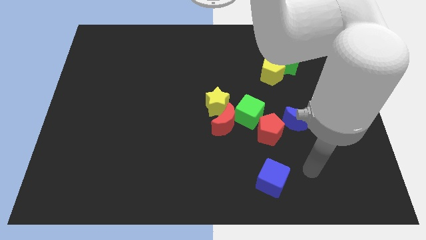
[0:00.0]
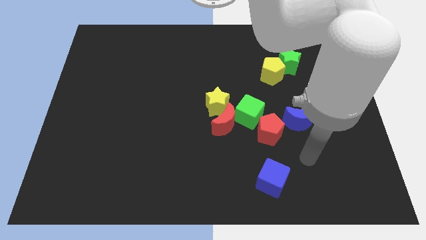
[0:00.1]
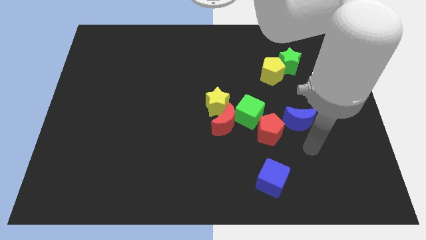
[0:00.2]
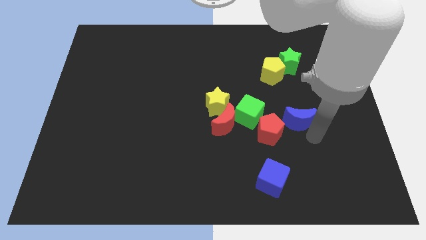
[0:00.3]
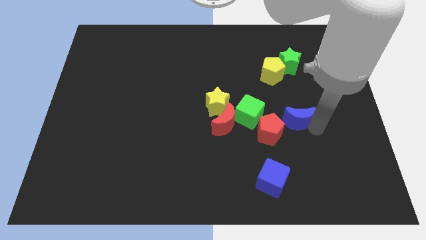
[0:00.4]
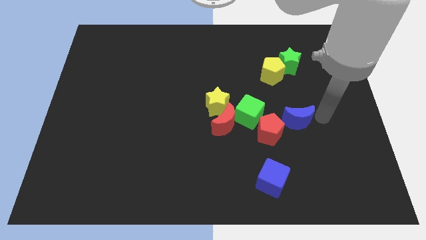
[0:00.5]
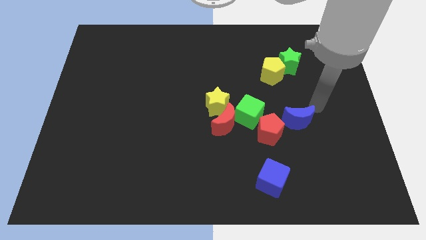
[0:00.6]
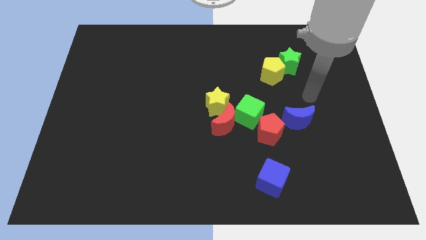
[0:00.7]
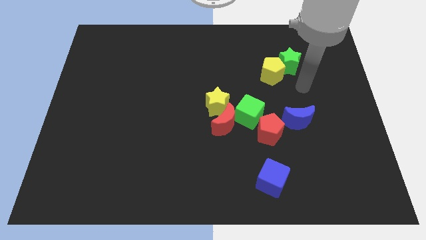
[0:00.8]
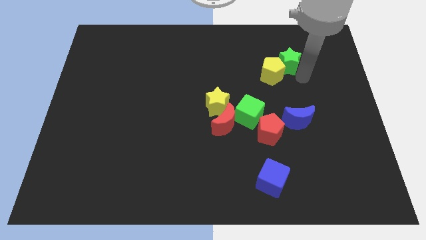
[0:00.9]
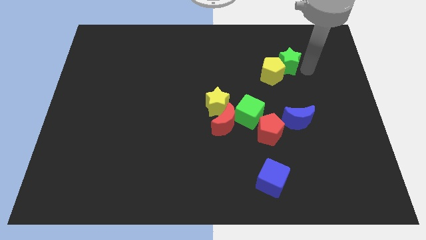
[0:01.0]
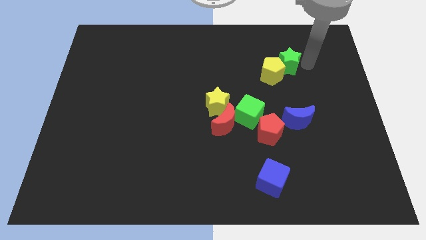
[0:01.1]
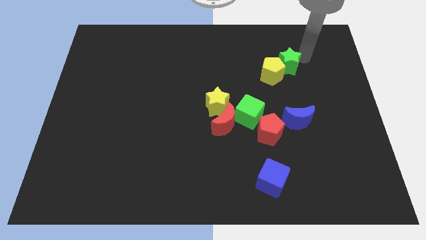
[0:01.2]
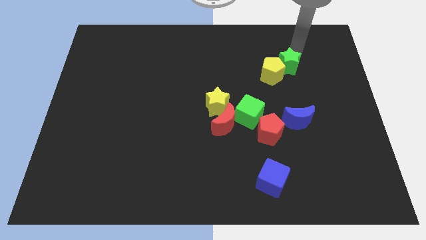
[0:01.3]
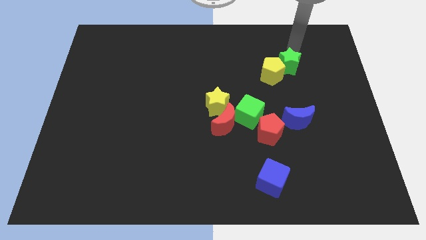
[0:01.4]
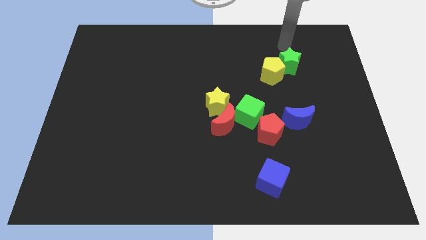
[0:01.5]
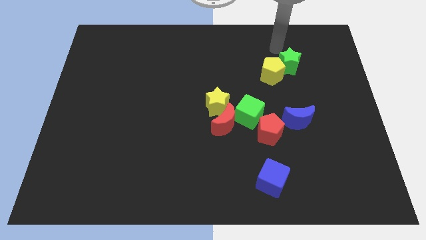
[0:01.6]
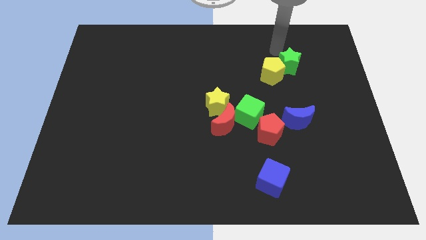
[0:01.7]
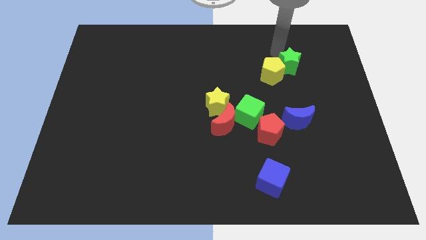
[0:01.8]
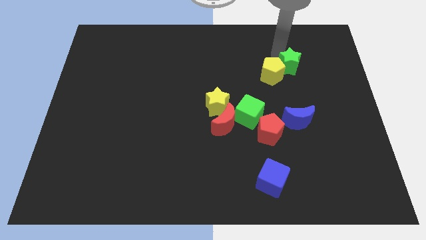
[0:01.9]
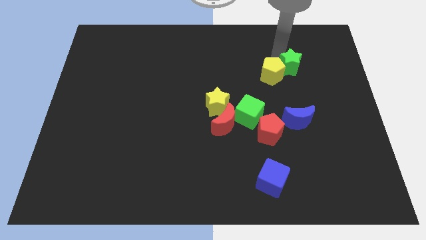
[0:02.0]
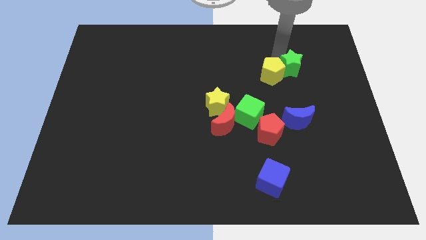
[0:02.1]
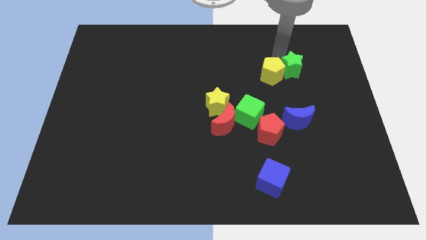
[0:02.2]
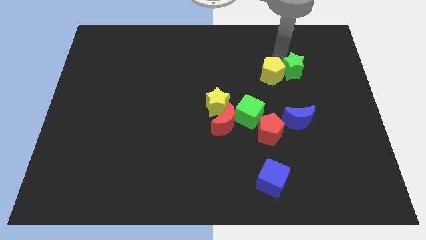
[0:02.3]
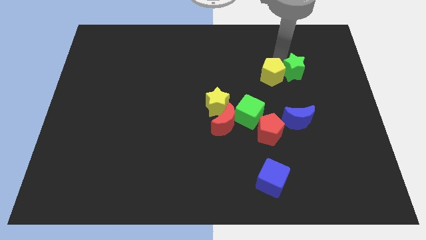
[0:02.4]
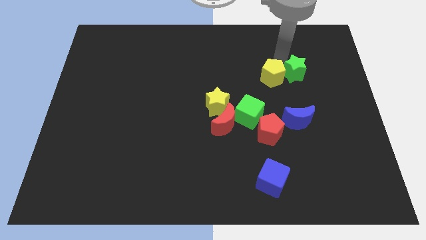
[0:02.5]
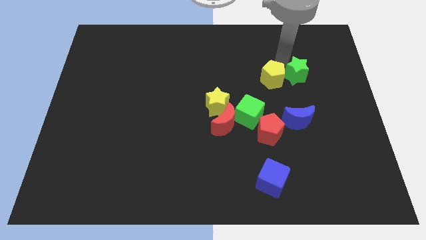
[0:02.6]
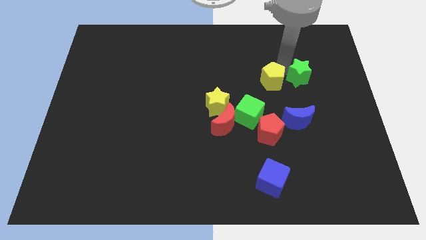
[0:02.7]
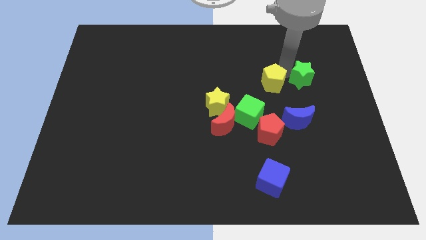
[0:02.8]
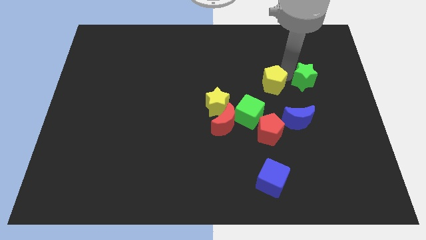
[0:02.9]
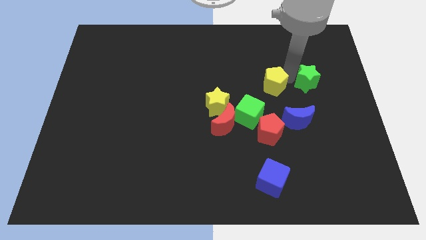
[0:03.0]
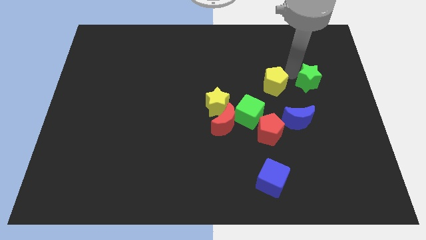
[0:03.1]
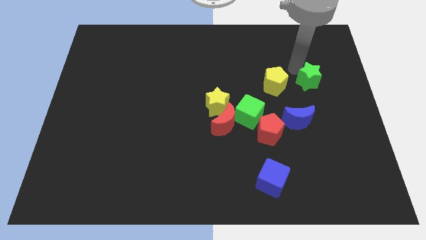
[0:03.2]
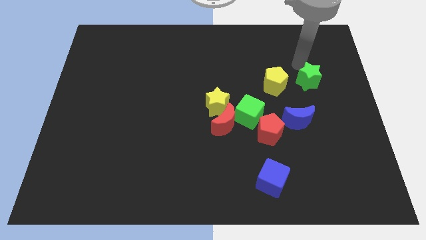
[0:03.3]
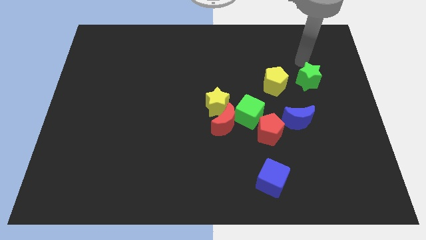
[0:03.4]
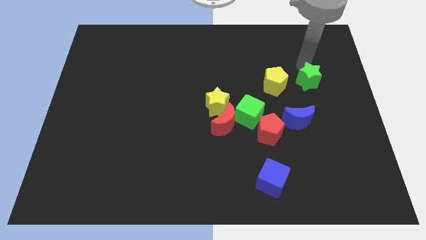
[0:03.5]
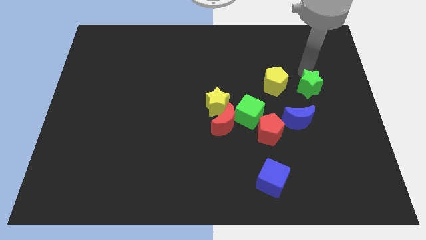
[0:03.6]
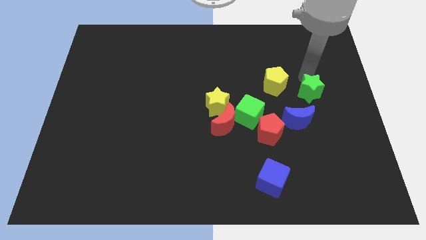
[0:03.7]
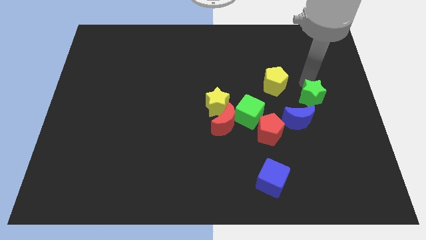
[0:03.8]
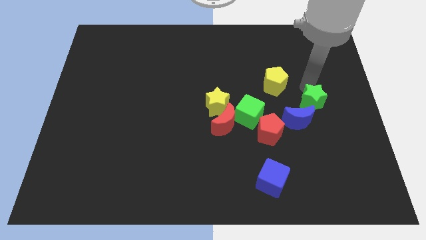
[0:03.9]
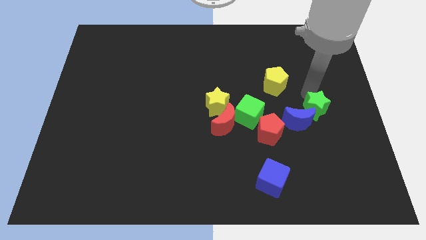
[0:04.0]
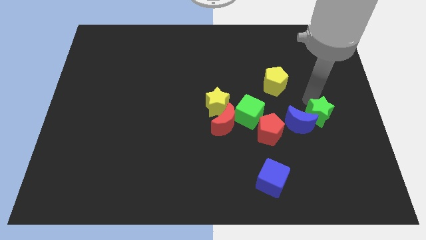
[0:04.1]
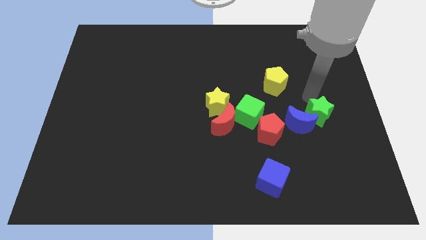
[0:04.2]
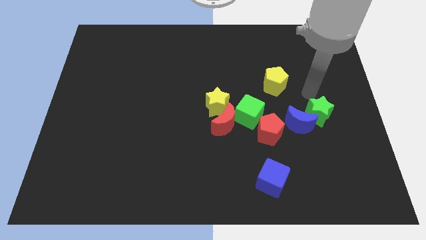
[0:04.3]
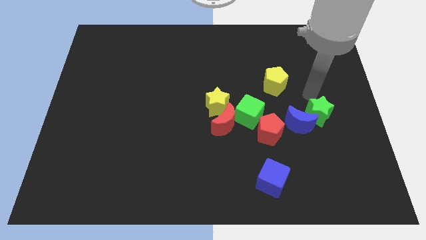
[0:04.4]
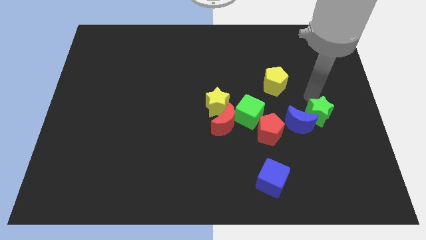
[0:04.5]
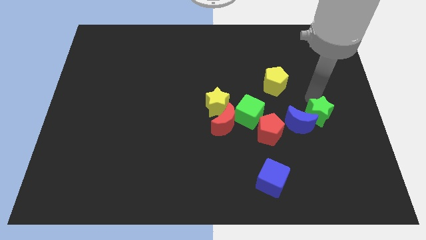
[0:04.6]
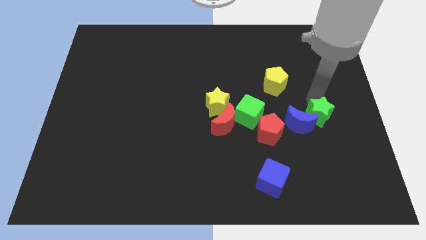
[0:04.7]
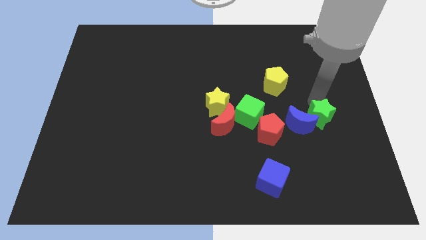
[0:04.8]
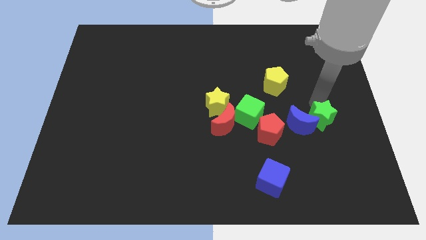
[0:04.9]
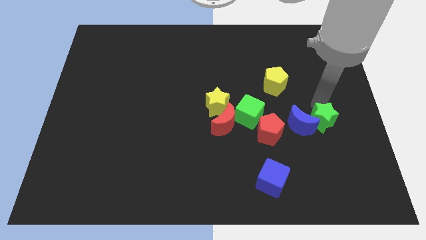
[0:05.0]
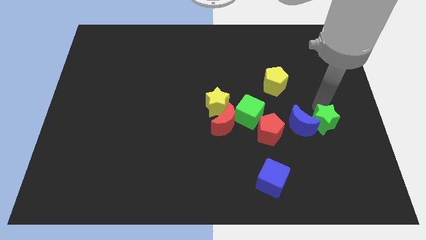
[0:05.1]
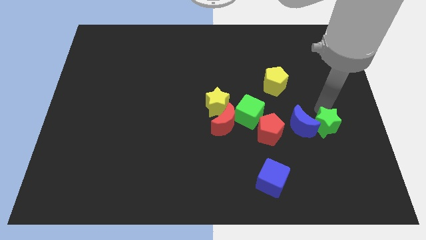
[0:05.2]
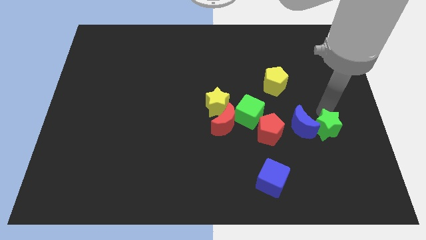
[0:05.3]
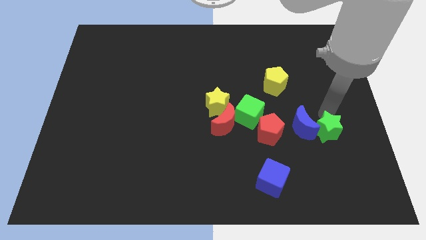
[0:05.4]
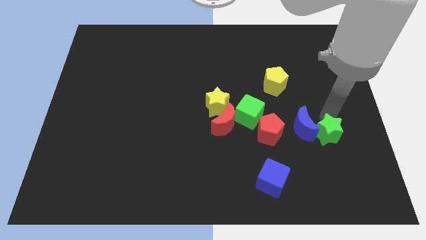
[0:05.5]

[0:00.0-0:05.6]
slide the green star downwards

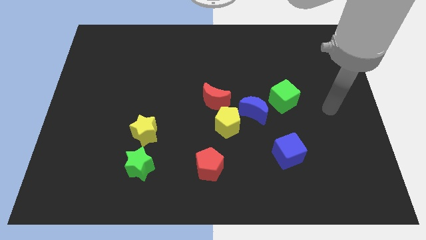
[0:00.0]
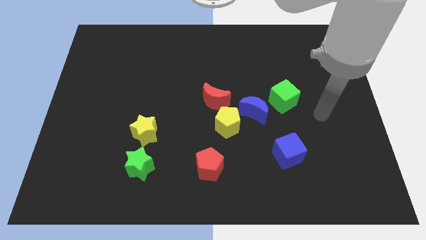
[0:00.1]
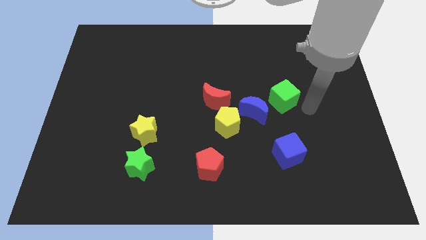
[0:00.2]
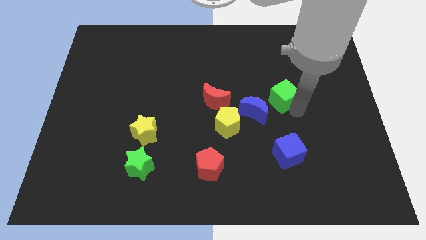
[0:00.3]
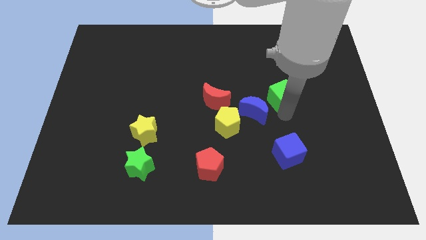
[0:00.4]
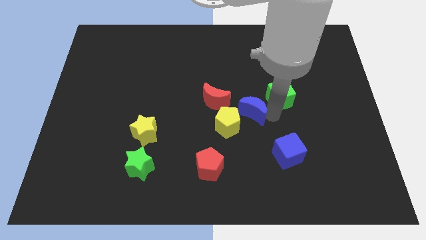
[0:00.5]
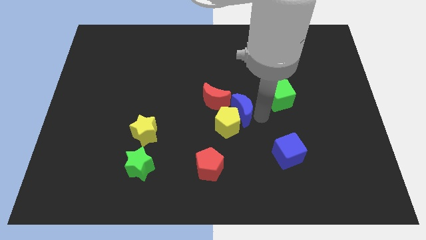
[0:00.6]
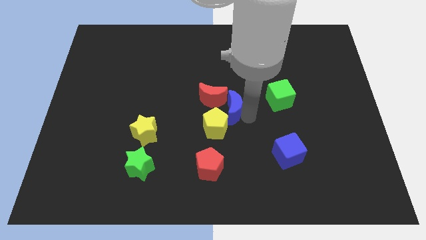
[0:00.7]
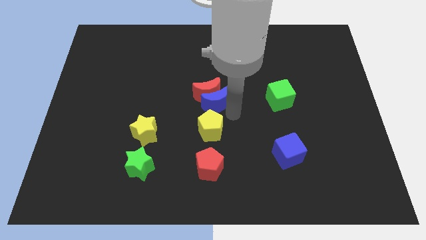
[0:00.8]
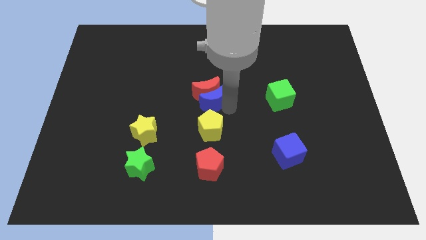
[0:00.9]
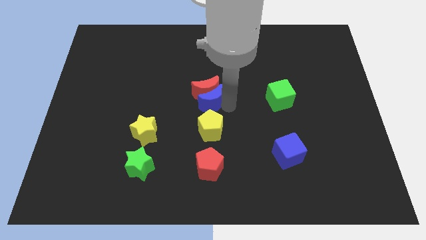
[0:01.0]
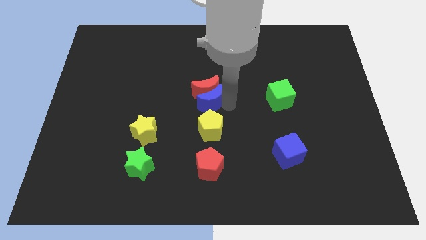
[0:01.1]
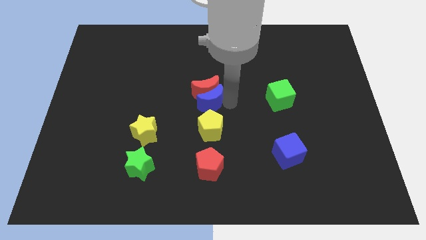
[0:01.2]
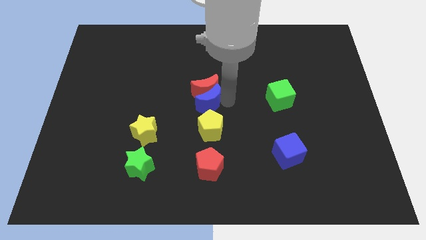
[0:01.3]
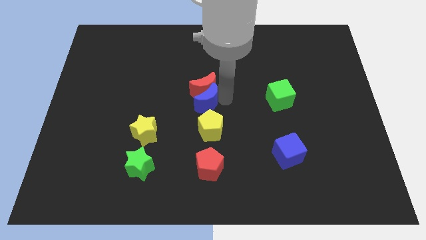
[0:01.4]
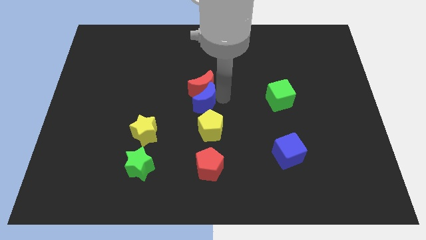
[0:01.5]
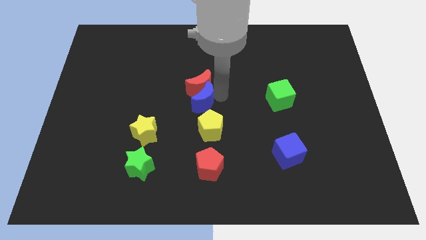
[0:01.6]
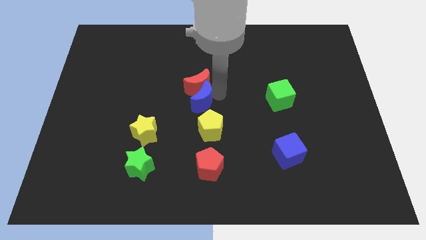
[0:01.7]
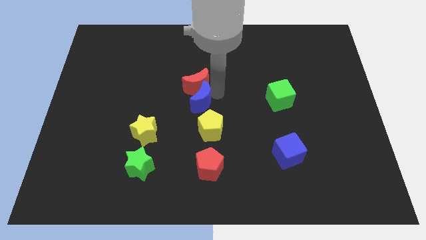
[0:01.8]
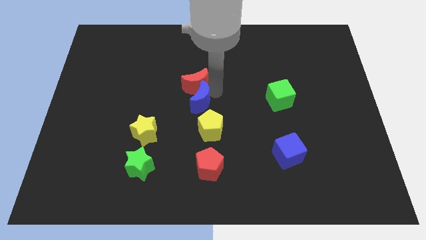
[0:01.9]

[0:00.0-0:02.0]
move the red moon a bit up and to the left diagonally

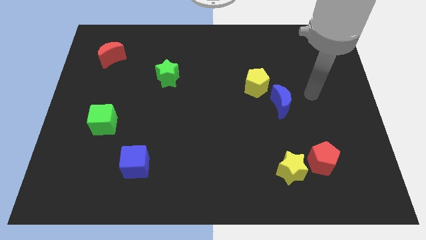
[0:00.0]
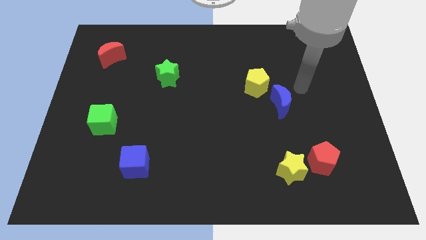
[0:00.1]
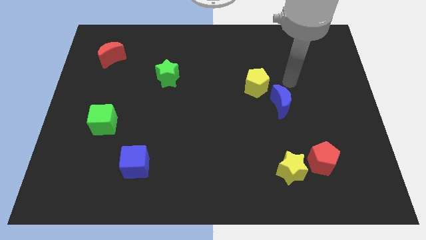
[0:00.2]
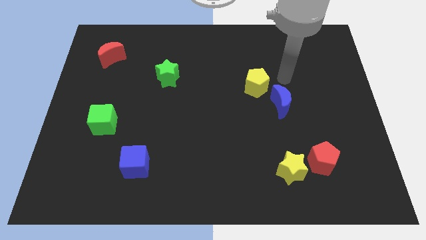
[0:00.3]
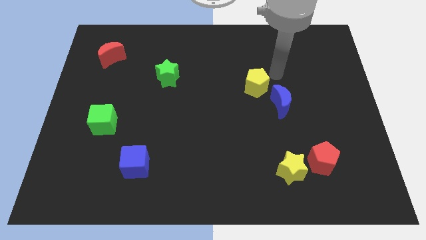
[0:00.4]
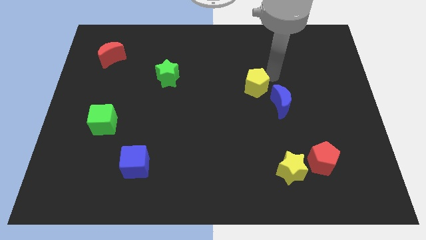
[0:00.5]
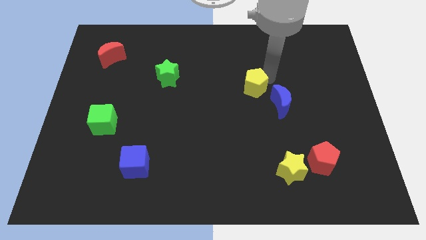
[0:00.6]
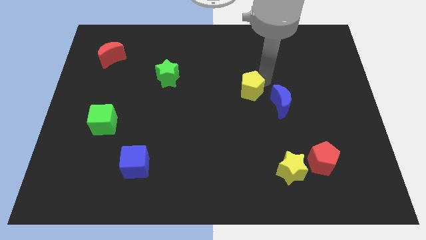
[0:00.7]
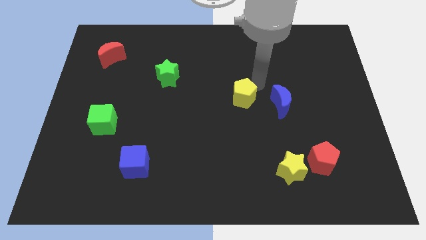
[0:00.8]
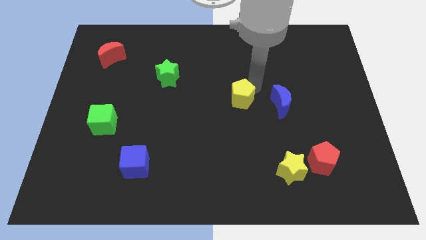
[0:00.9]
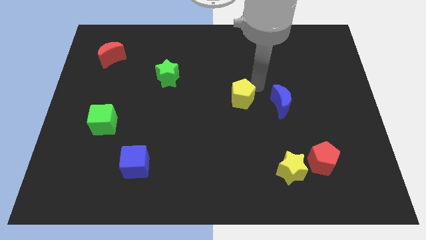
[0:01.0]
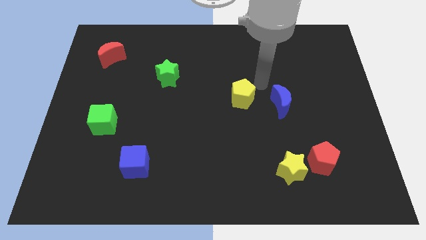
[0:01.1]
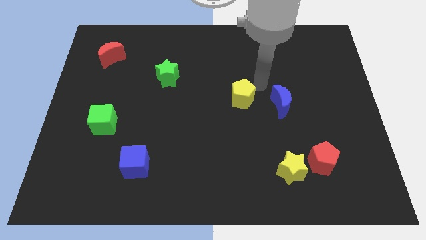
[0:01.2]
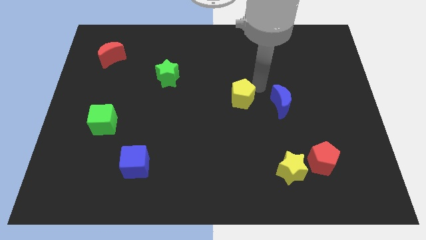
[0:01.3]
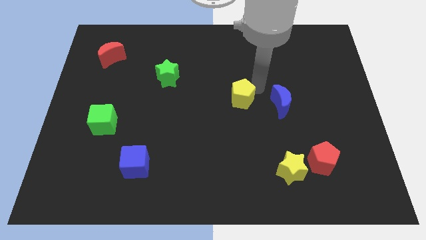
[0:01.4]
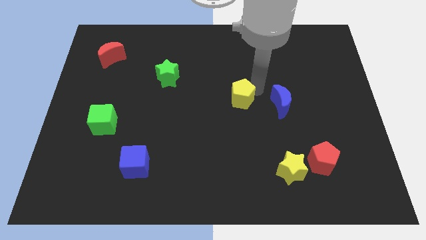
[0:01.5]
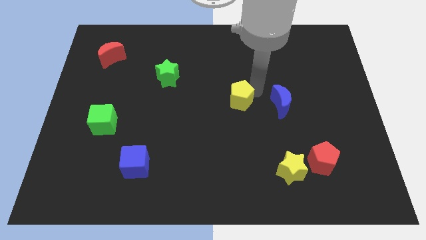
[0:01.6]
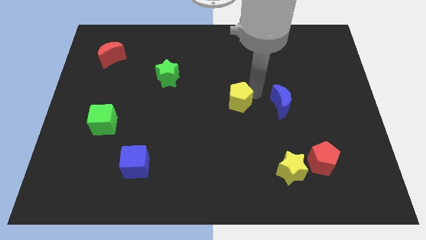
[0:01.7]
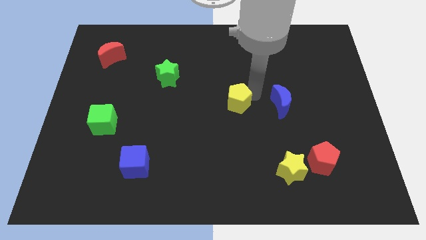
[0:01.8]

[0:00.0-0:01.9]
slightly slide the yellow pentagon downwards and left diagonally
